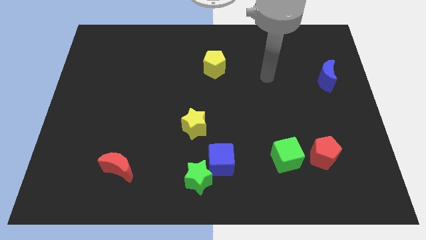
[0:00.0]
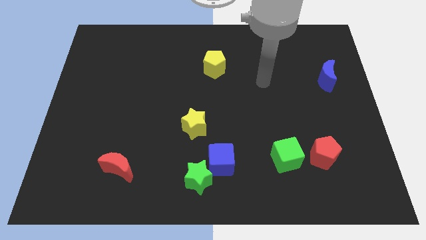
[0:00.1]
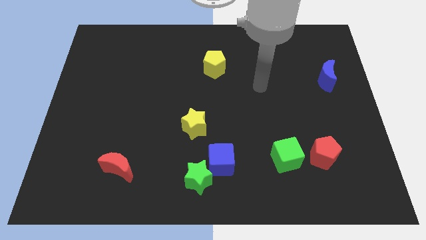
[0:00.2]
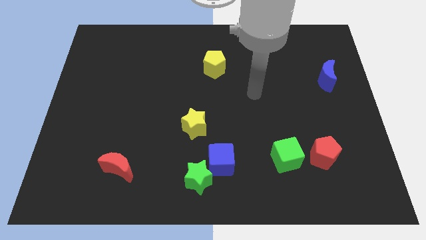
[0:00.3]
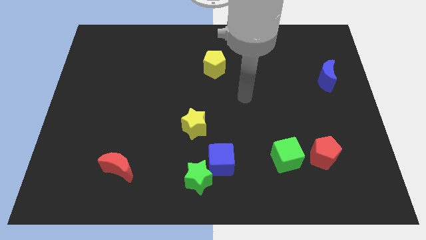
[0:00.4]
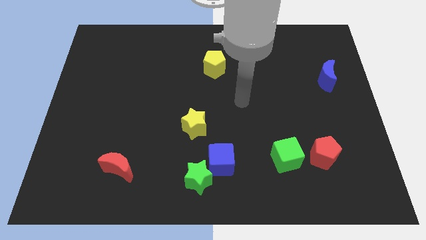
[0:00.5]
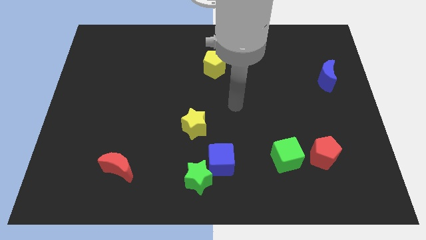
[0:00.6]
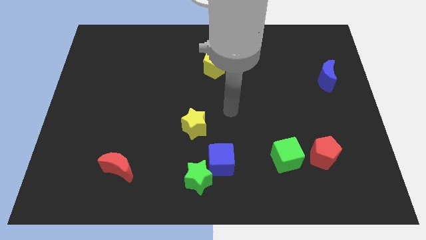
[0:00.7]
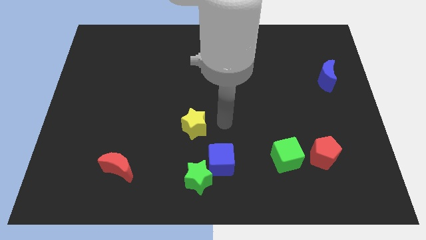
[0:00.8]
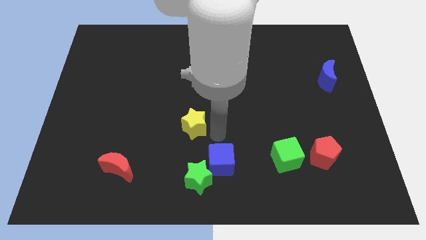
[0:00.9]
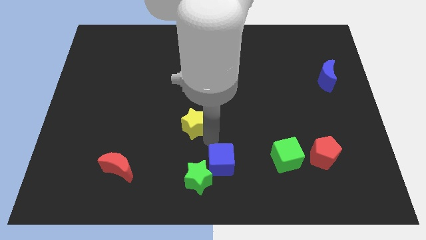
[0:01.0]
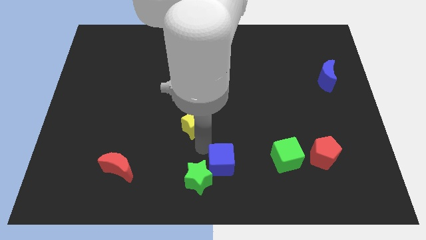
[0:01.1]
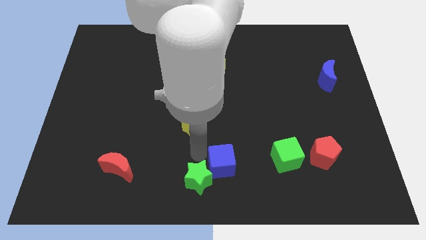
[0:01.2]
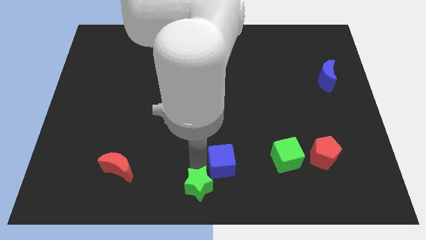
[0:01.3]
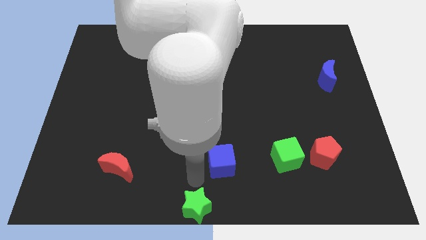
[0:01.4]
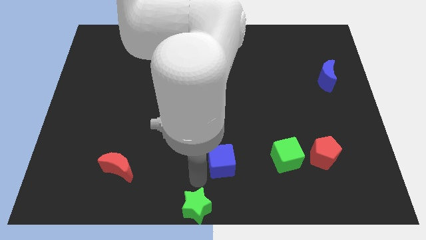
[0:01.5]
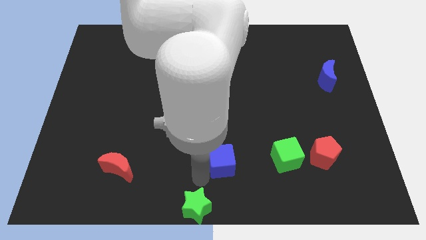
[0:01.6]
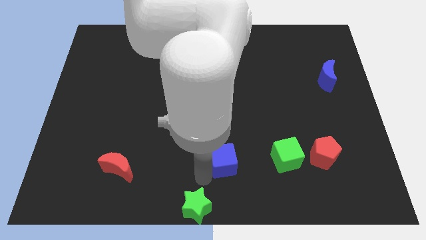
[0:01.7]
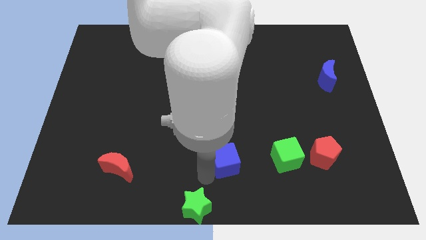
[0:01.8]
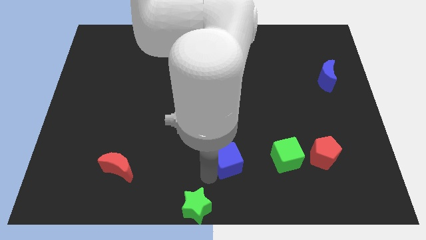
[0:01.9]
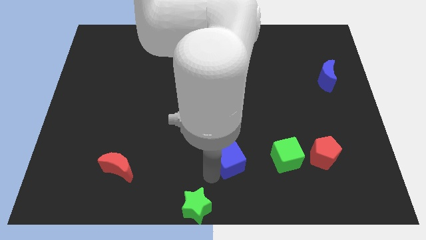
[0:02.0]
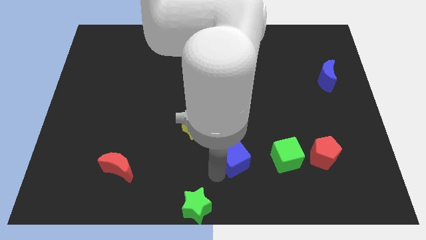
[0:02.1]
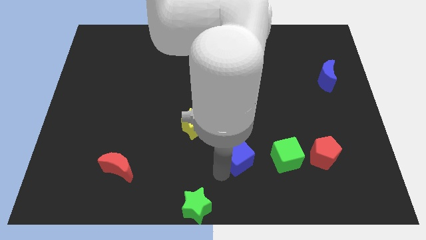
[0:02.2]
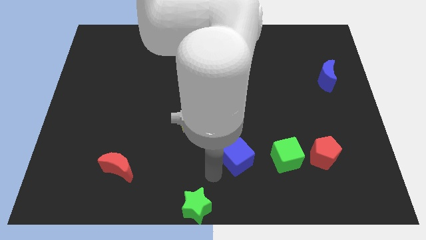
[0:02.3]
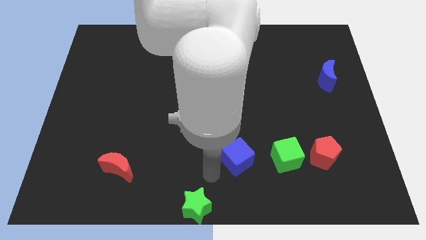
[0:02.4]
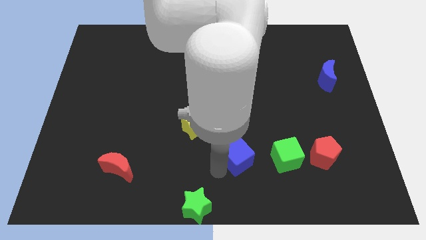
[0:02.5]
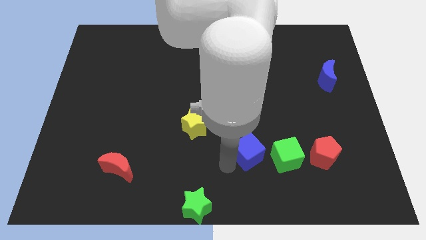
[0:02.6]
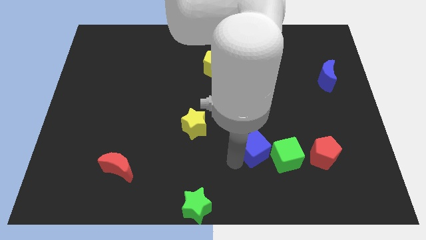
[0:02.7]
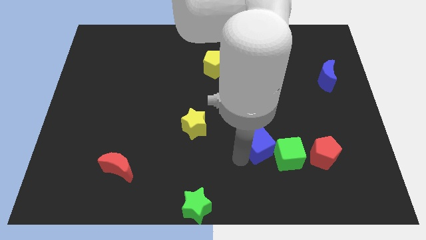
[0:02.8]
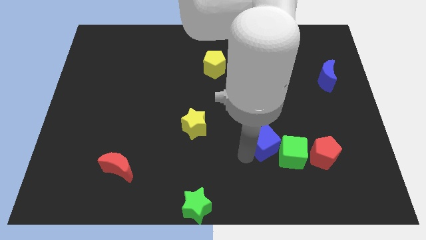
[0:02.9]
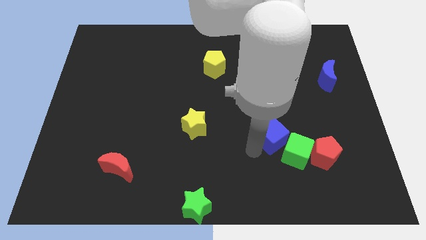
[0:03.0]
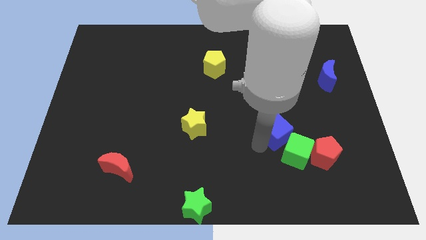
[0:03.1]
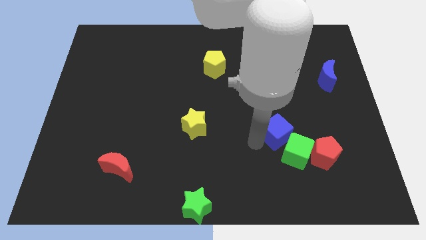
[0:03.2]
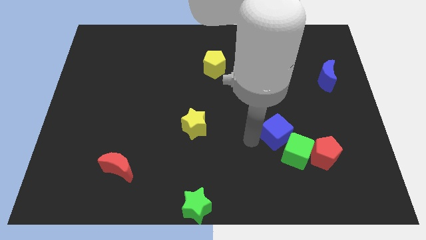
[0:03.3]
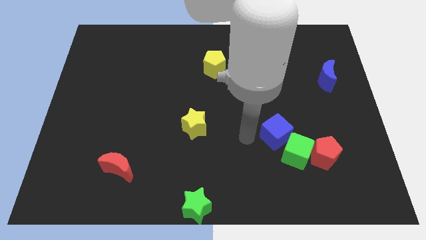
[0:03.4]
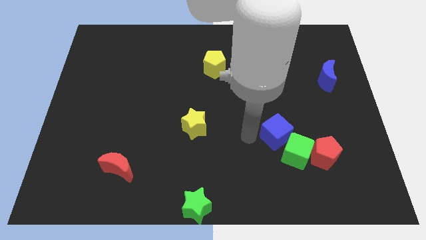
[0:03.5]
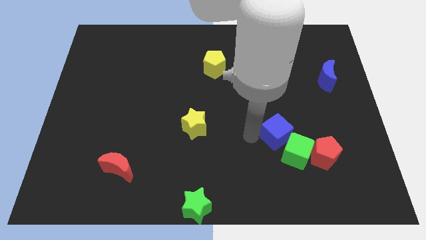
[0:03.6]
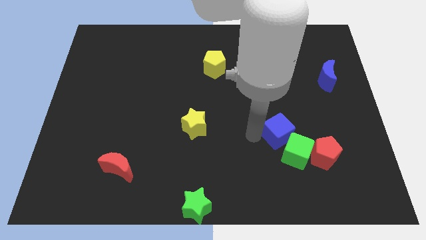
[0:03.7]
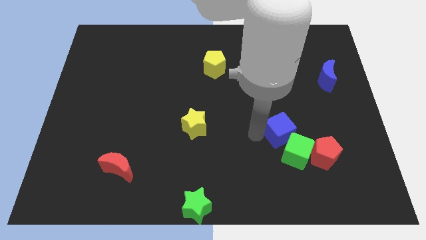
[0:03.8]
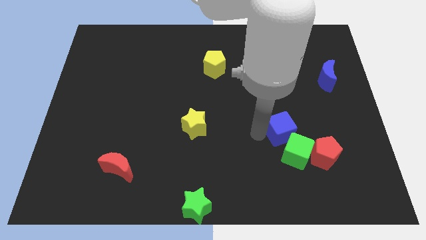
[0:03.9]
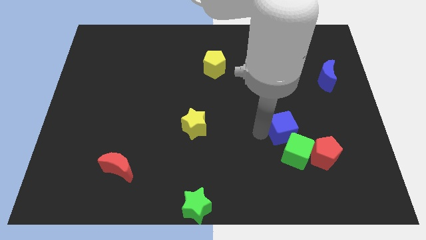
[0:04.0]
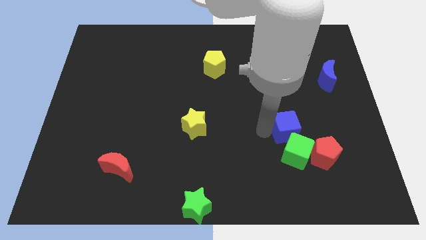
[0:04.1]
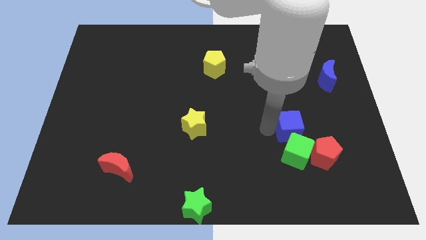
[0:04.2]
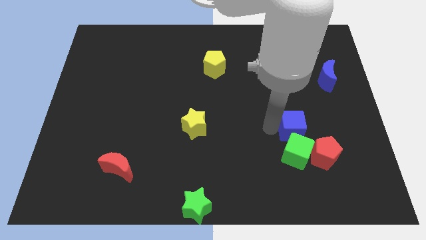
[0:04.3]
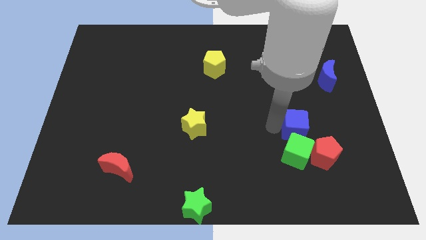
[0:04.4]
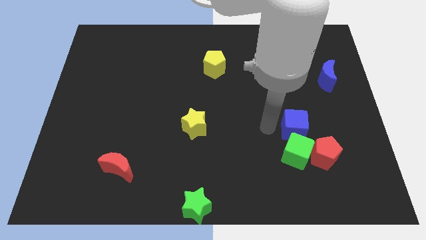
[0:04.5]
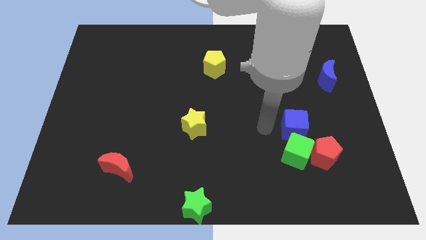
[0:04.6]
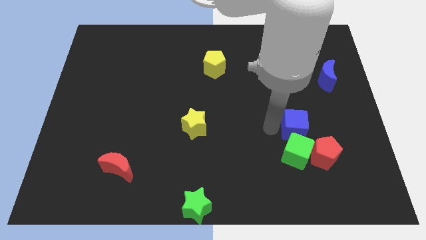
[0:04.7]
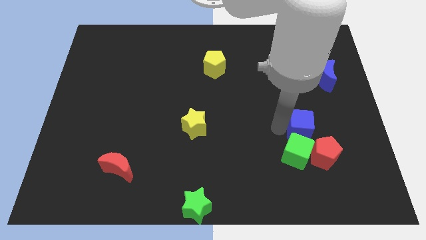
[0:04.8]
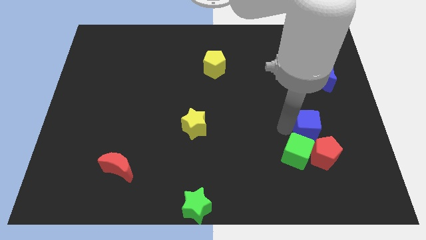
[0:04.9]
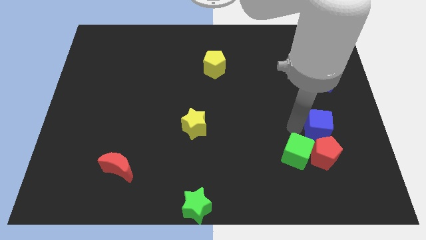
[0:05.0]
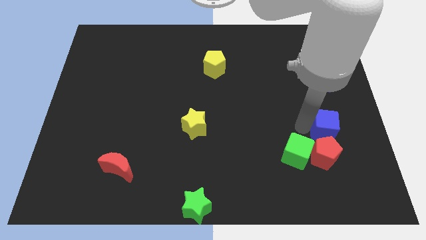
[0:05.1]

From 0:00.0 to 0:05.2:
push the blue cube diagonally up and to the right of the red pentagon

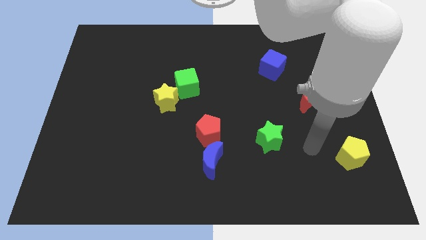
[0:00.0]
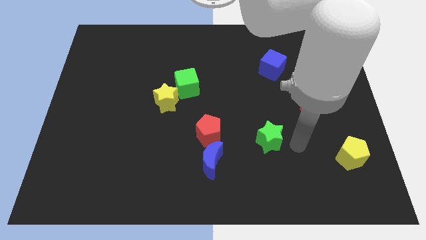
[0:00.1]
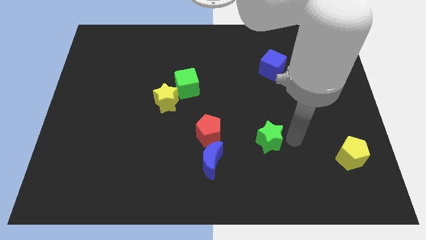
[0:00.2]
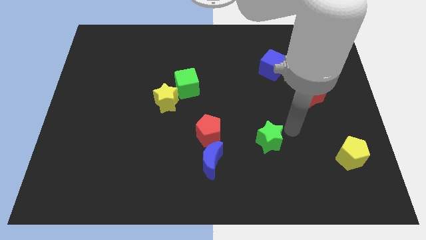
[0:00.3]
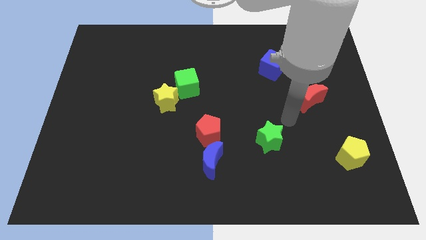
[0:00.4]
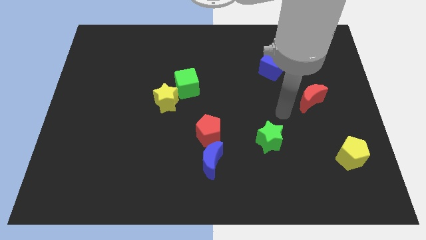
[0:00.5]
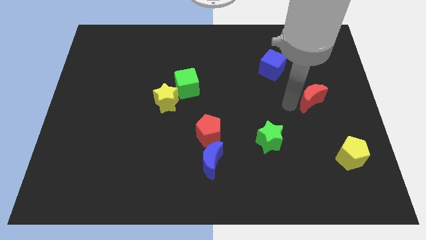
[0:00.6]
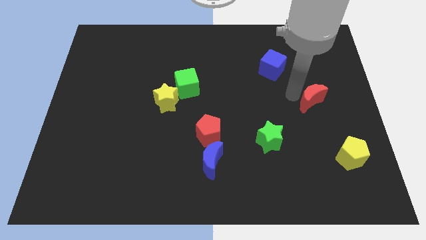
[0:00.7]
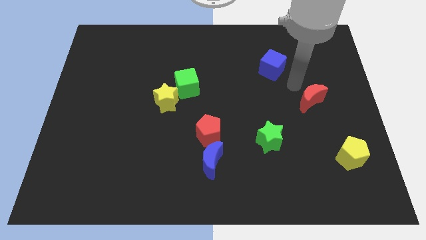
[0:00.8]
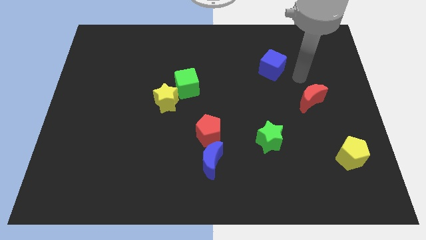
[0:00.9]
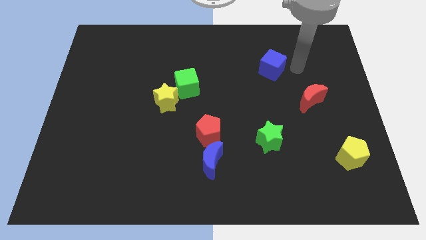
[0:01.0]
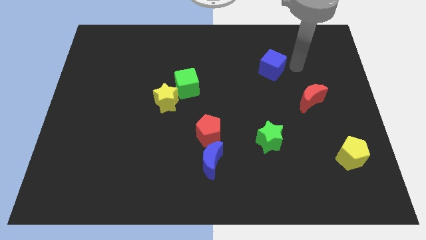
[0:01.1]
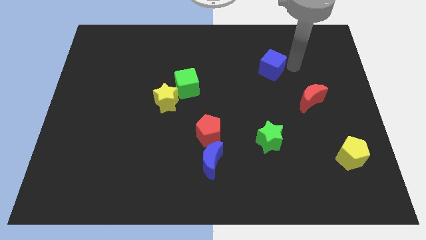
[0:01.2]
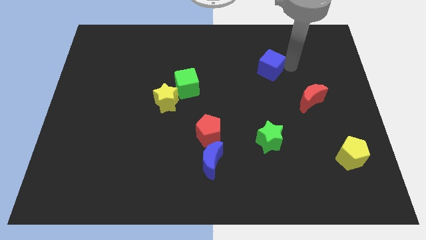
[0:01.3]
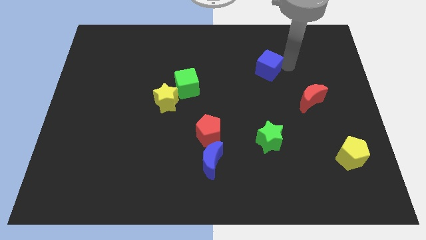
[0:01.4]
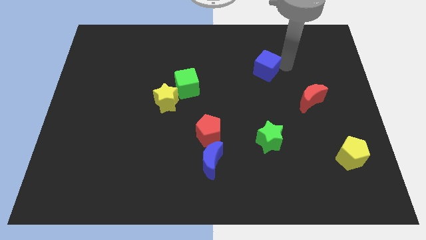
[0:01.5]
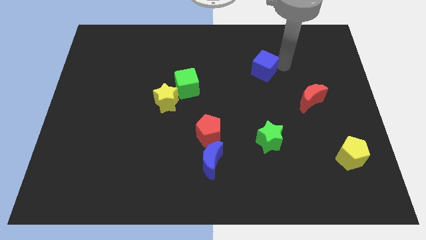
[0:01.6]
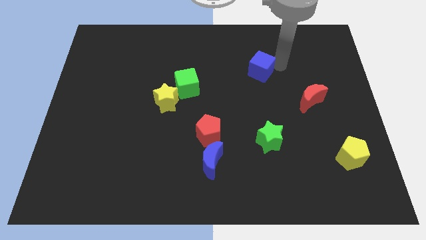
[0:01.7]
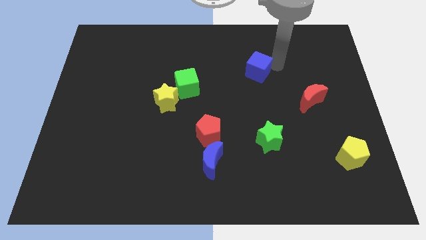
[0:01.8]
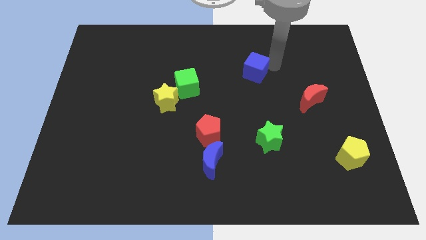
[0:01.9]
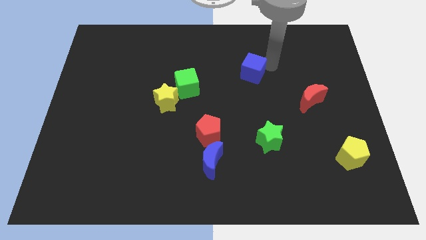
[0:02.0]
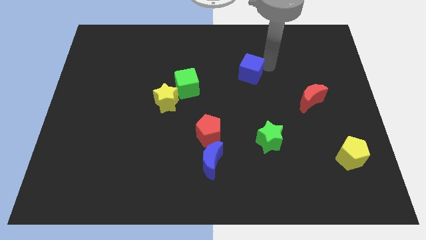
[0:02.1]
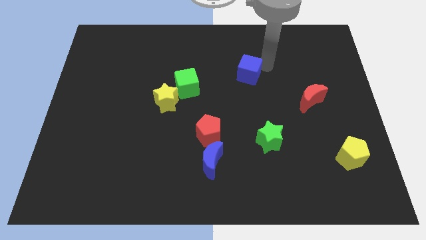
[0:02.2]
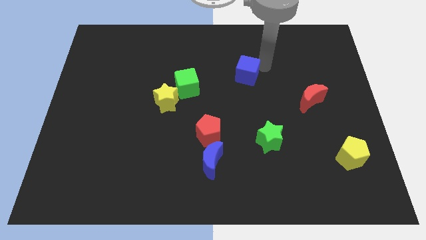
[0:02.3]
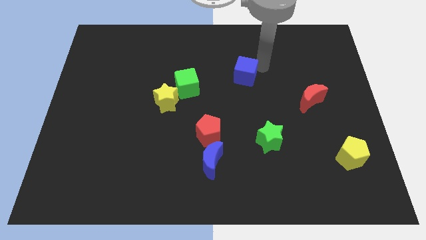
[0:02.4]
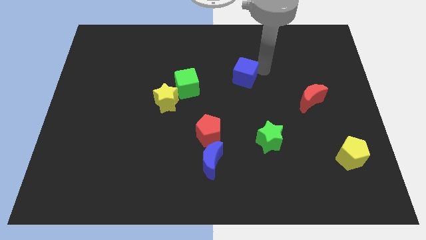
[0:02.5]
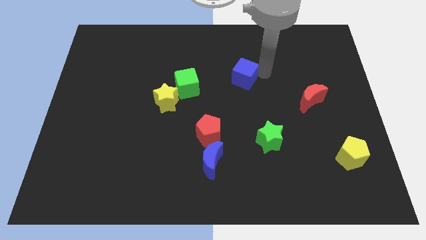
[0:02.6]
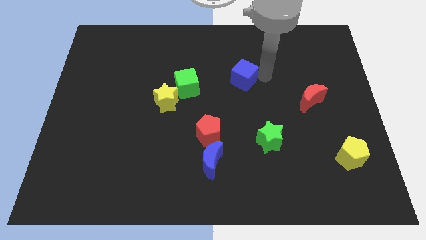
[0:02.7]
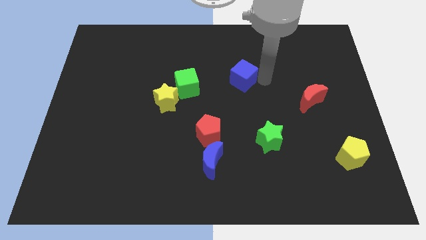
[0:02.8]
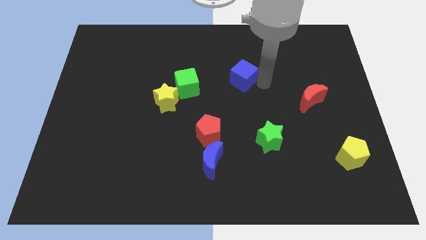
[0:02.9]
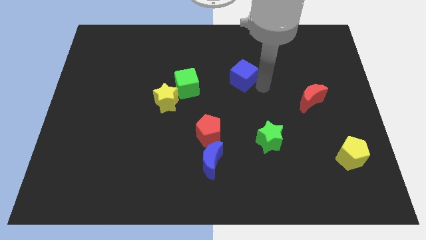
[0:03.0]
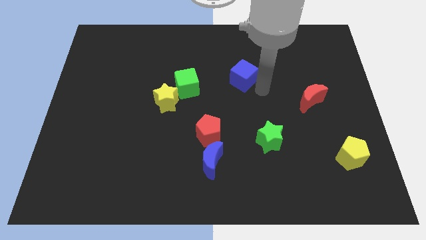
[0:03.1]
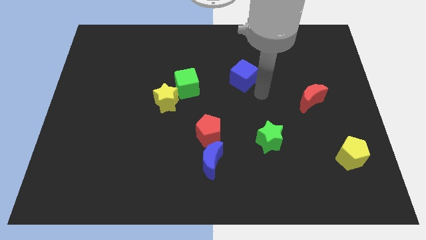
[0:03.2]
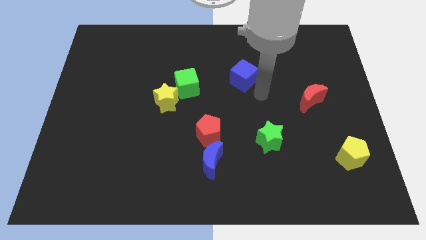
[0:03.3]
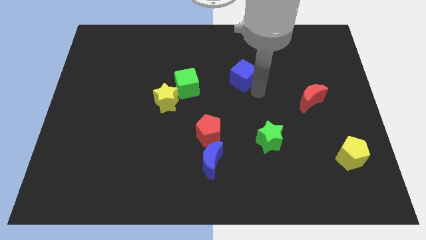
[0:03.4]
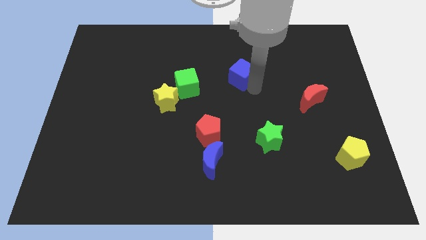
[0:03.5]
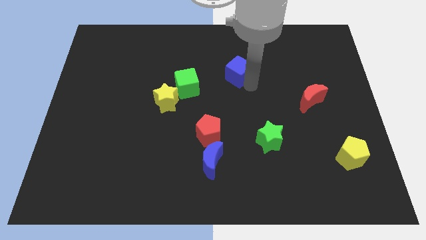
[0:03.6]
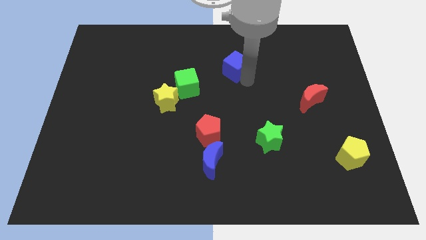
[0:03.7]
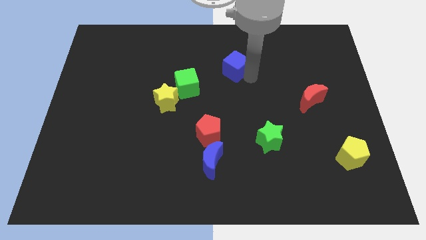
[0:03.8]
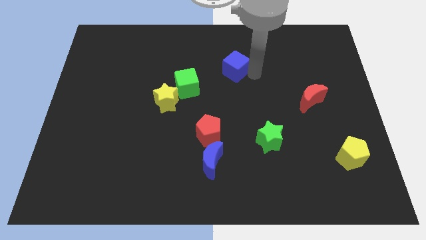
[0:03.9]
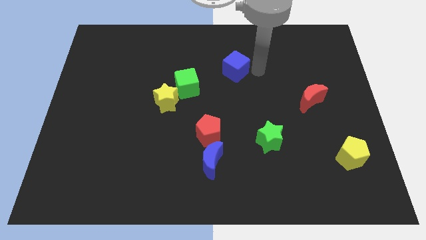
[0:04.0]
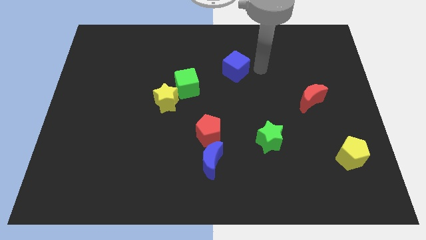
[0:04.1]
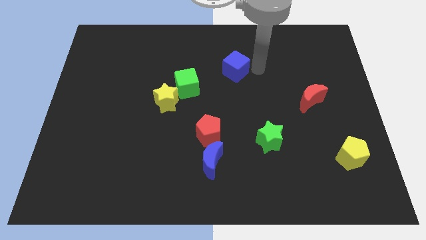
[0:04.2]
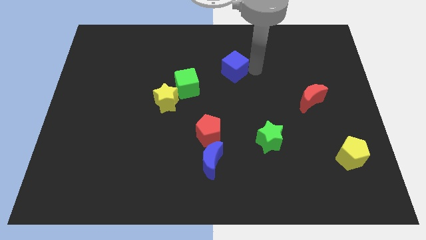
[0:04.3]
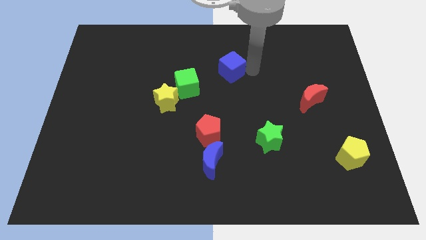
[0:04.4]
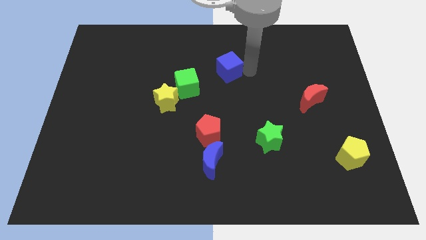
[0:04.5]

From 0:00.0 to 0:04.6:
push the blue cube to the top right of the green cube
